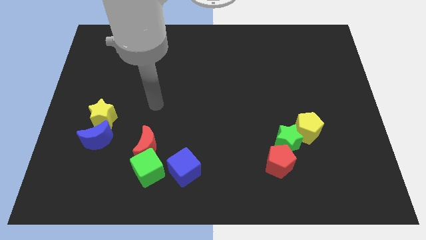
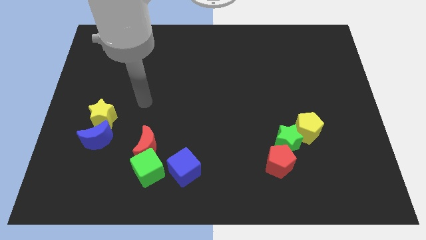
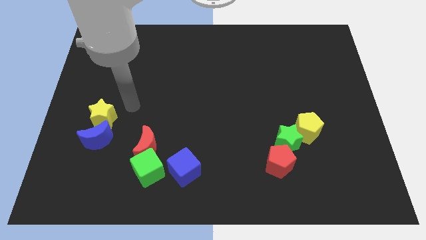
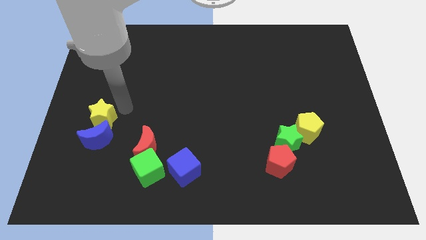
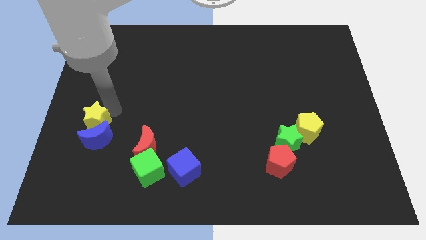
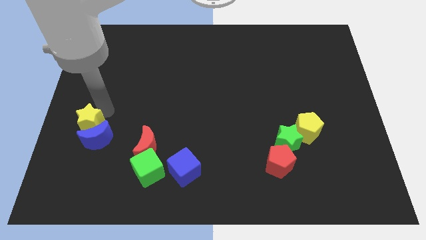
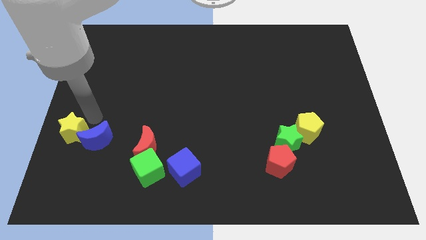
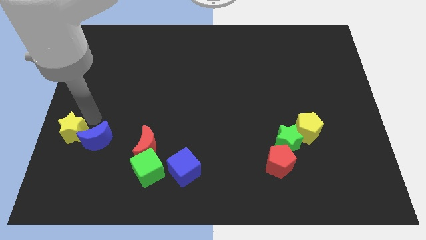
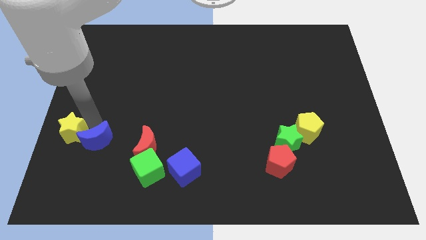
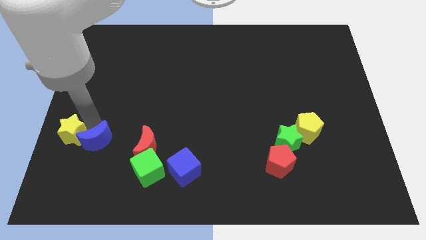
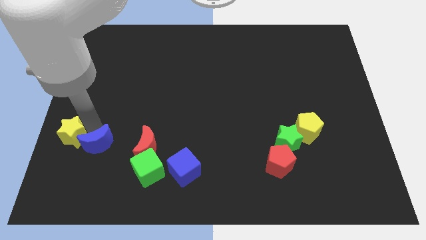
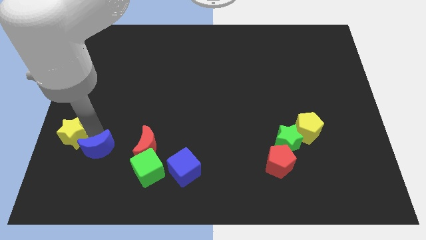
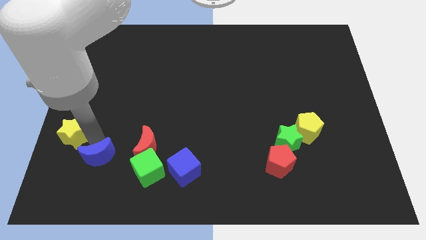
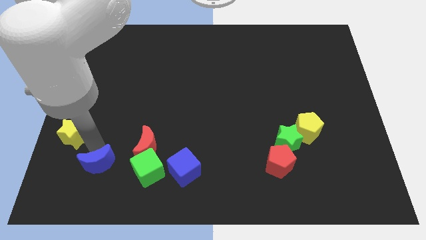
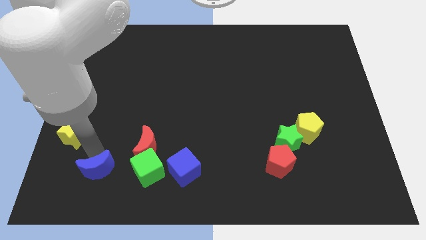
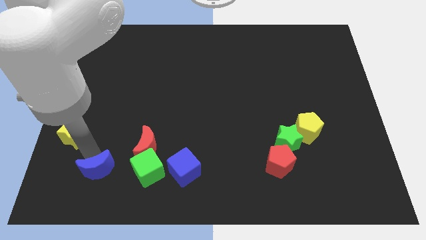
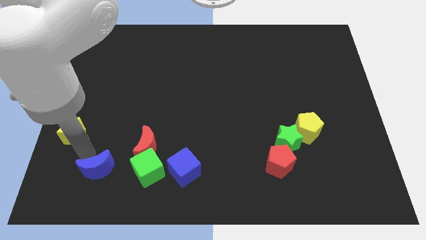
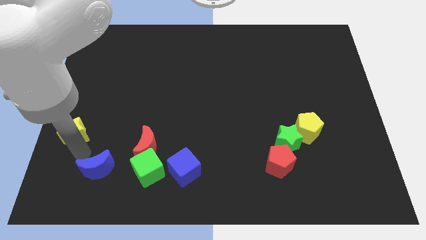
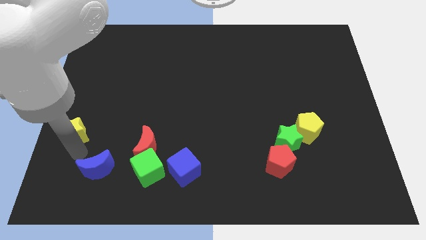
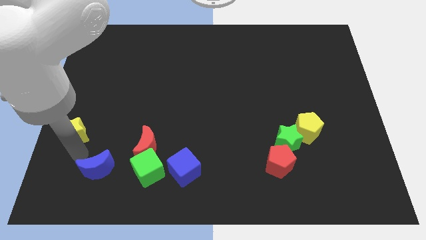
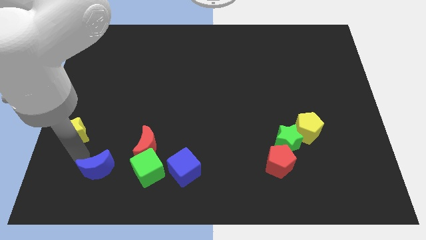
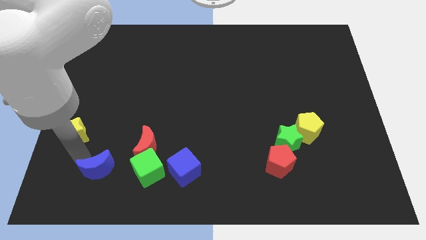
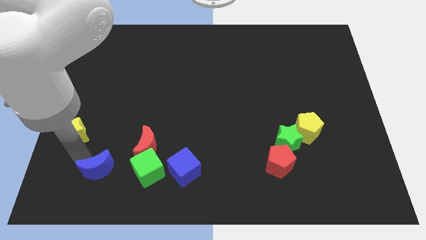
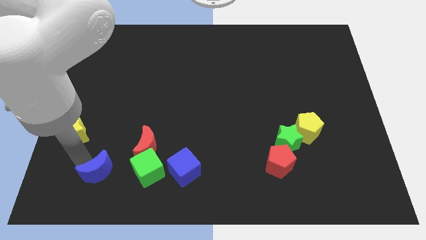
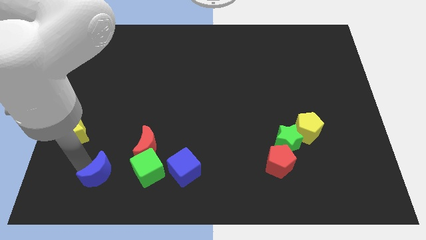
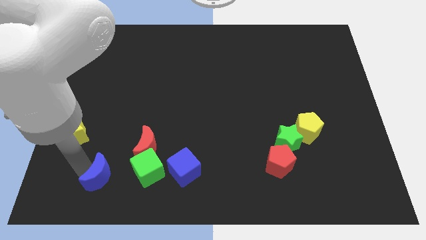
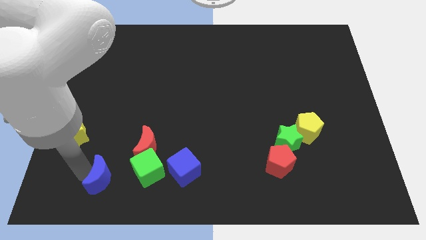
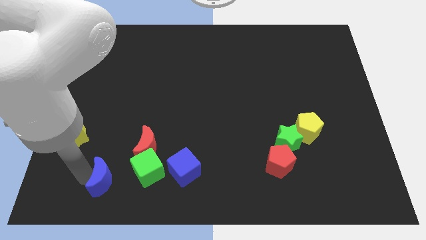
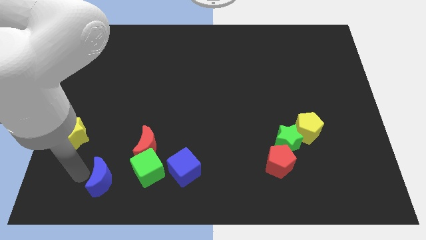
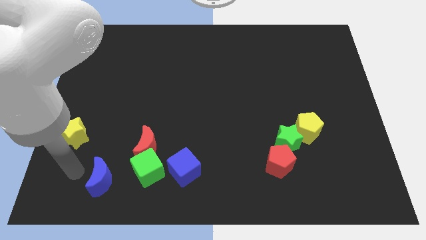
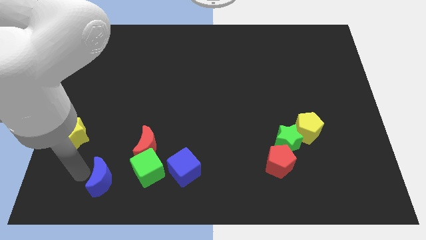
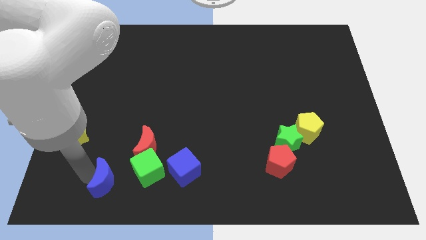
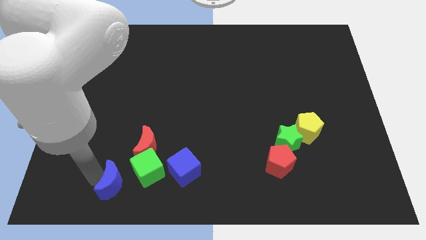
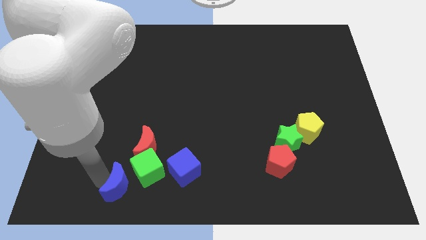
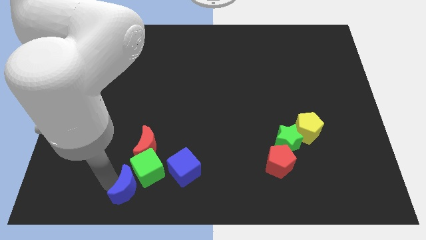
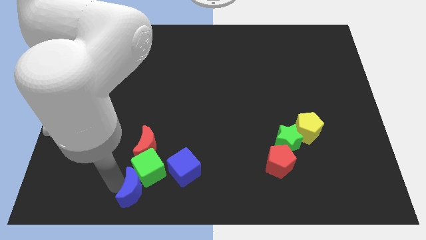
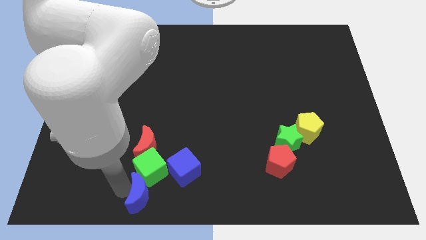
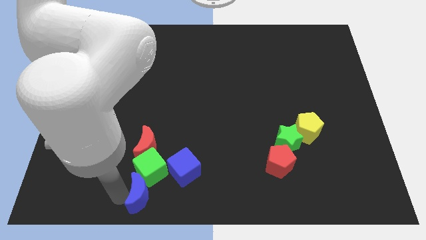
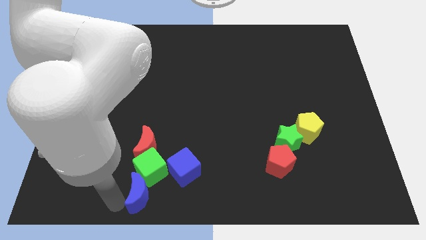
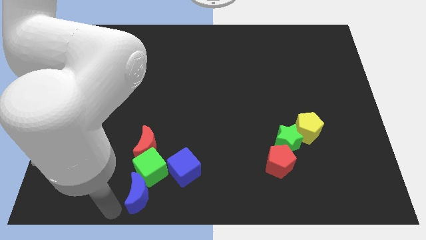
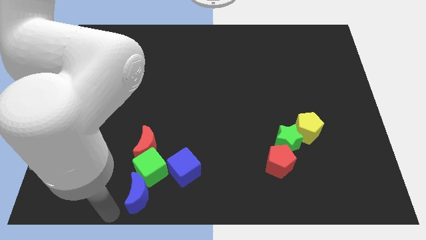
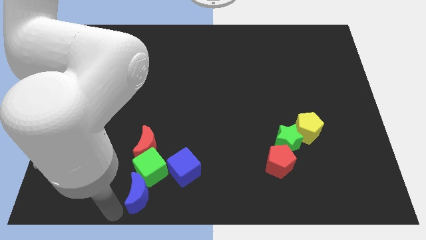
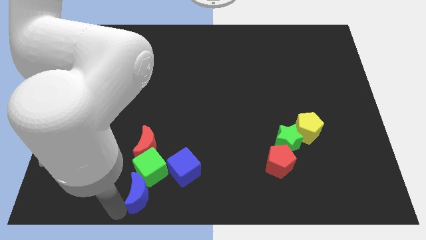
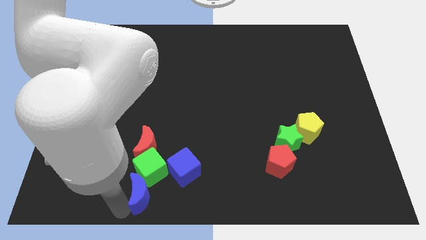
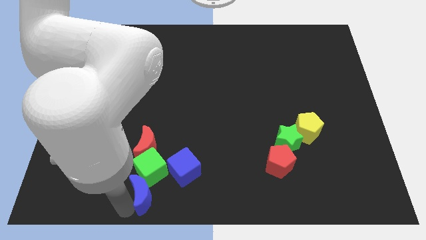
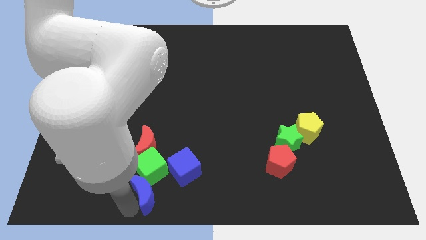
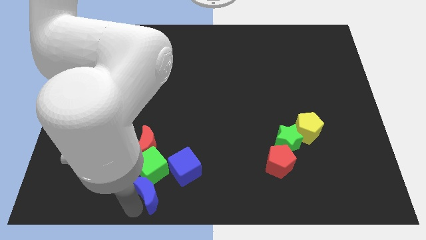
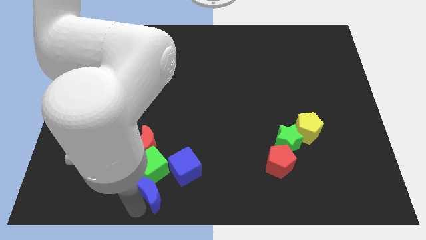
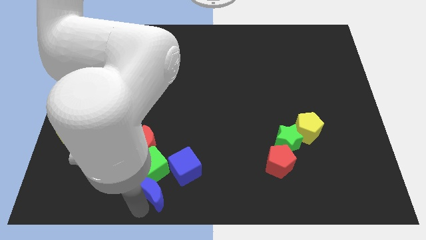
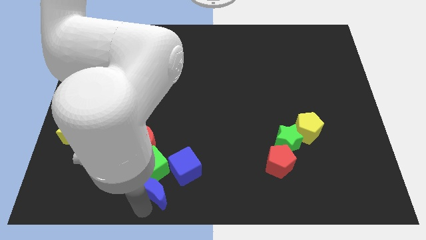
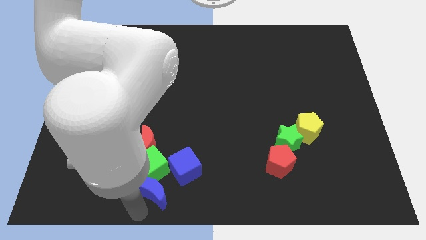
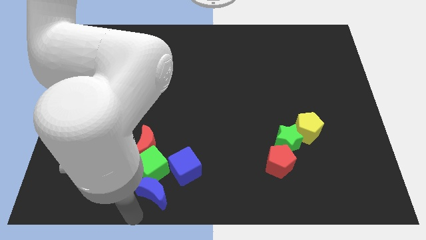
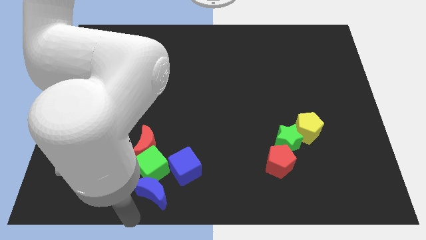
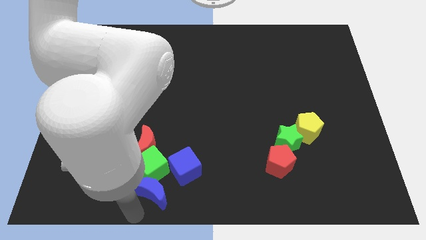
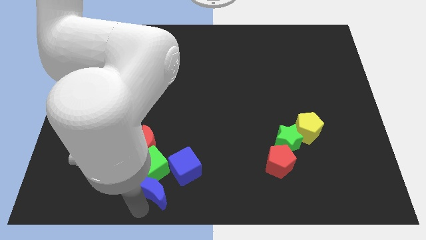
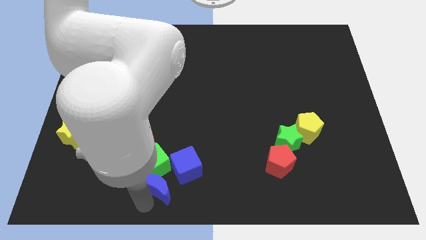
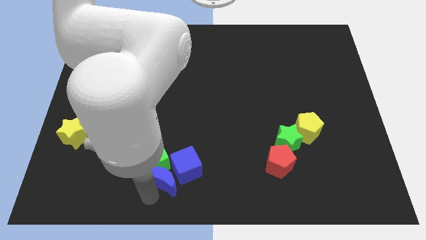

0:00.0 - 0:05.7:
push the blue moon towards the blue cube
